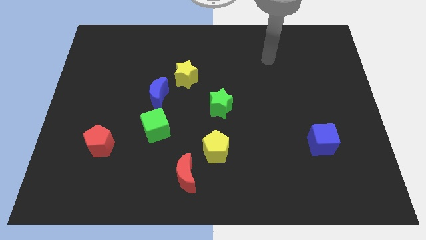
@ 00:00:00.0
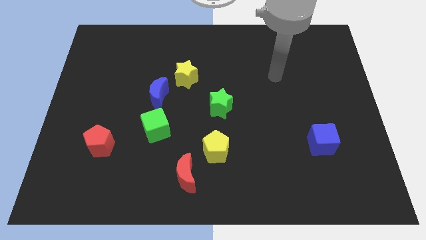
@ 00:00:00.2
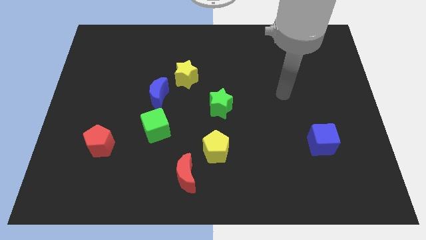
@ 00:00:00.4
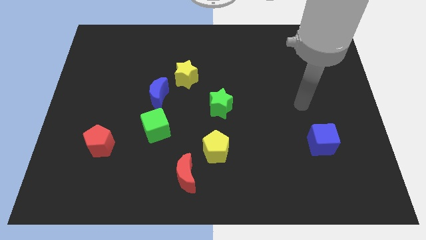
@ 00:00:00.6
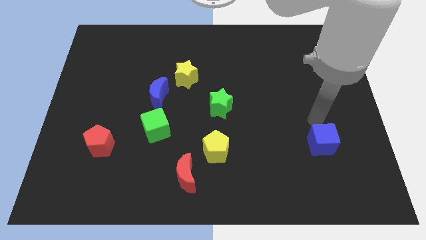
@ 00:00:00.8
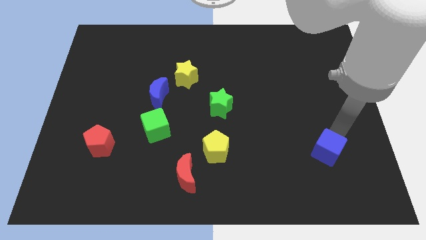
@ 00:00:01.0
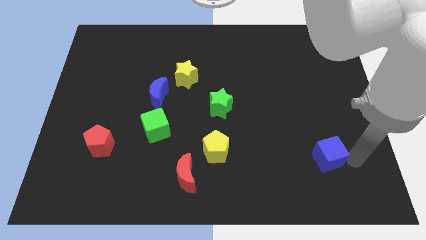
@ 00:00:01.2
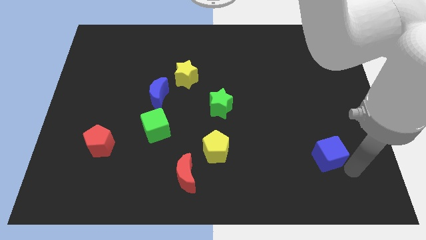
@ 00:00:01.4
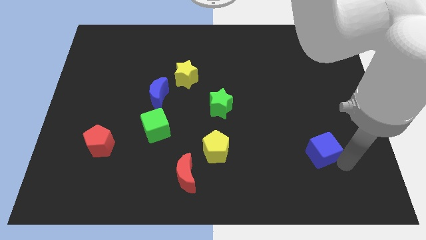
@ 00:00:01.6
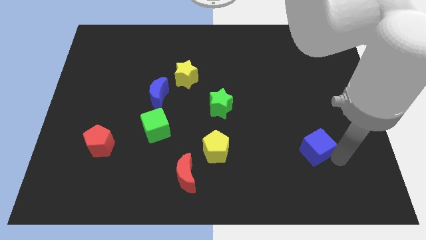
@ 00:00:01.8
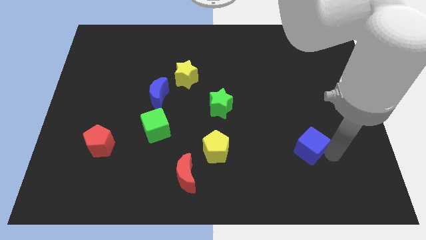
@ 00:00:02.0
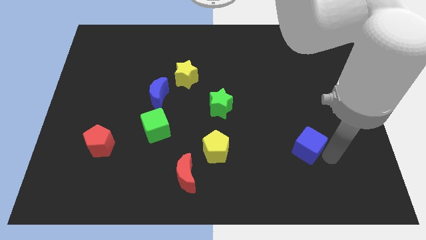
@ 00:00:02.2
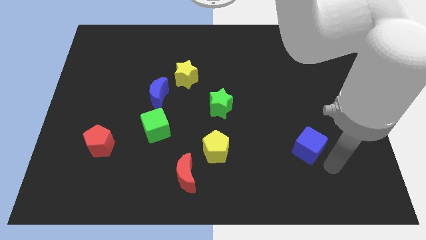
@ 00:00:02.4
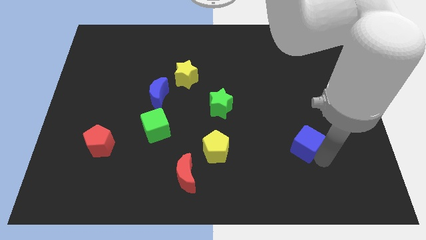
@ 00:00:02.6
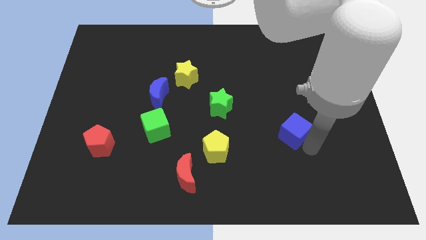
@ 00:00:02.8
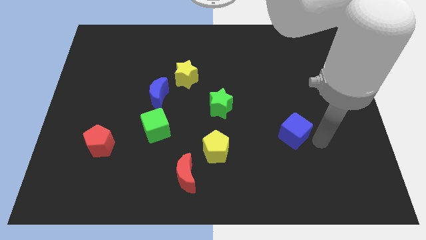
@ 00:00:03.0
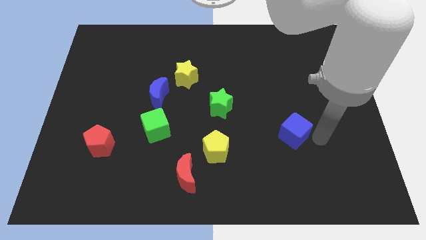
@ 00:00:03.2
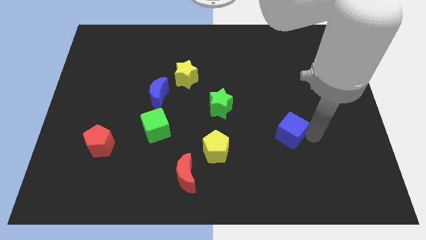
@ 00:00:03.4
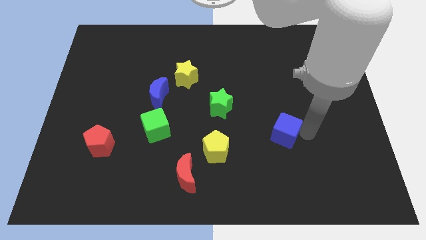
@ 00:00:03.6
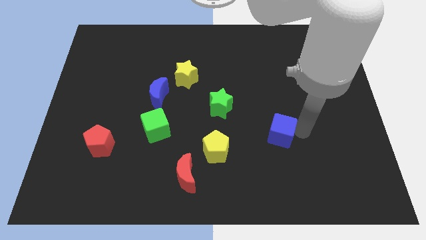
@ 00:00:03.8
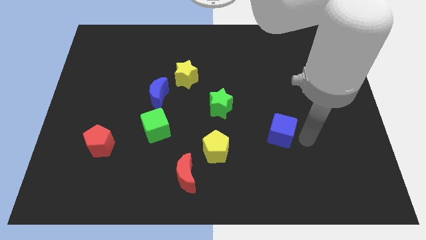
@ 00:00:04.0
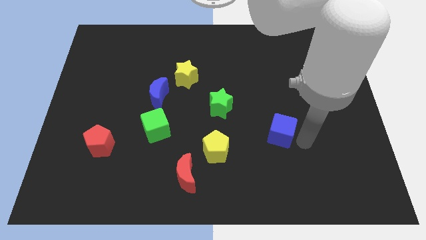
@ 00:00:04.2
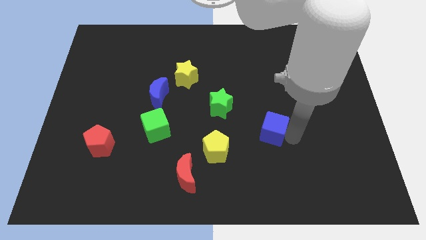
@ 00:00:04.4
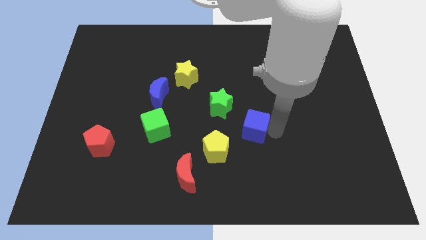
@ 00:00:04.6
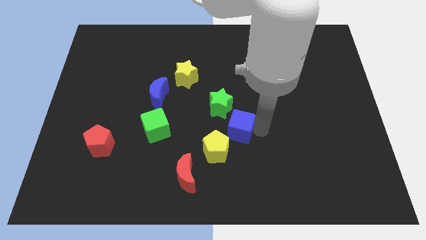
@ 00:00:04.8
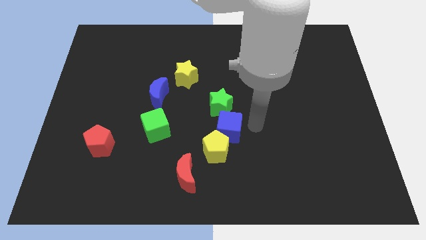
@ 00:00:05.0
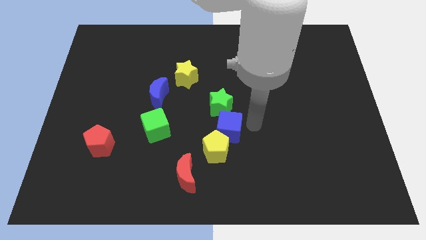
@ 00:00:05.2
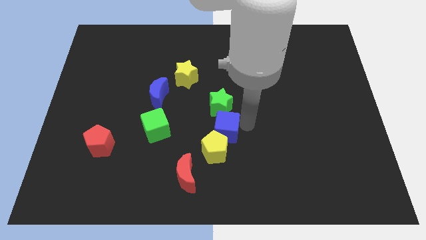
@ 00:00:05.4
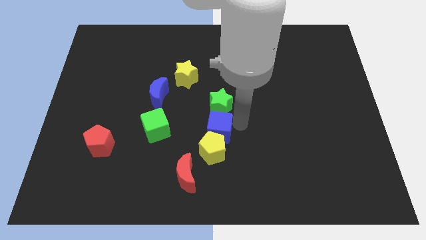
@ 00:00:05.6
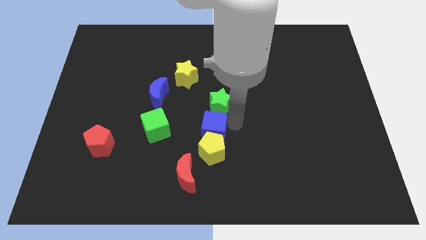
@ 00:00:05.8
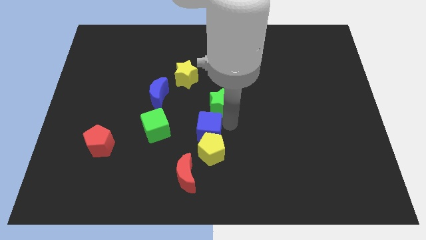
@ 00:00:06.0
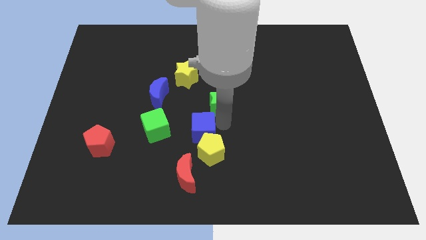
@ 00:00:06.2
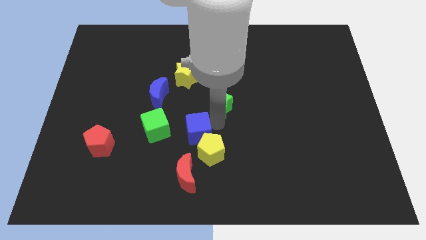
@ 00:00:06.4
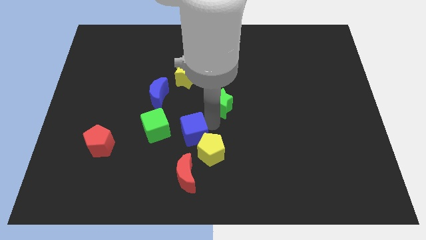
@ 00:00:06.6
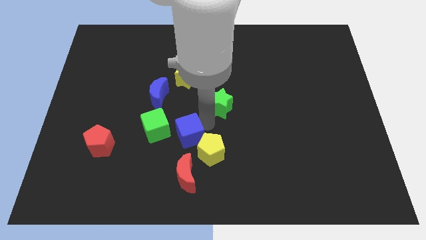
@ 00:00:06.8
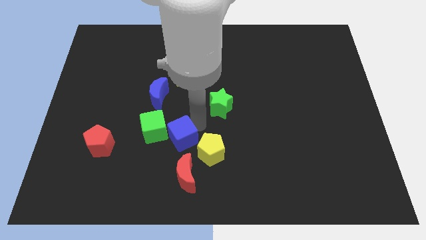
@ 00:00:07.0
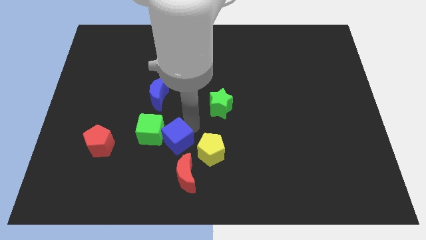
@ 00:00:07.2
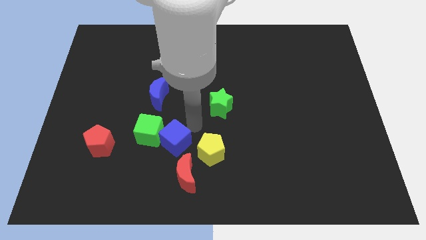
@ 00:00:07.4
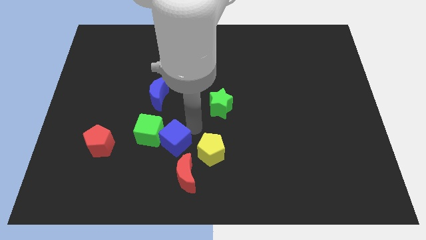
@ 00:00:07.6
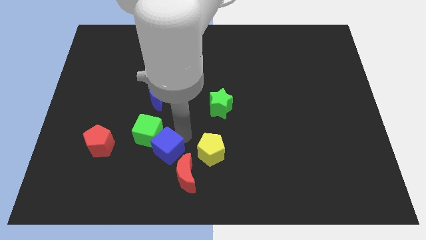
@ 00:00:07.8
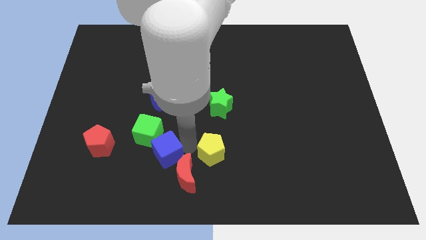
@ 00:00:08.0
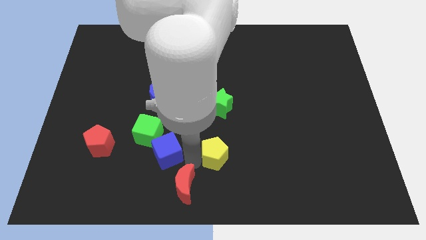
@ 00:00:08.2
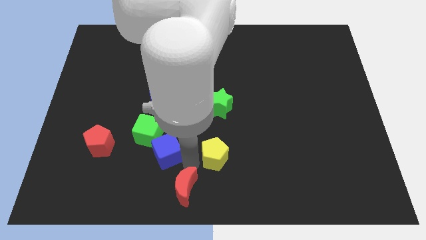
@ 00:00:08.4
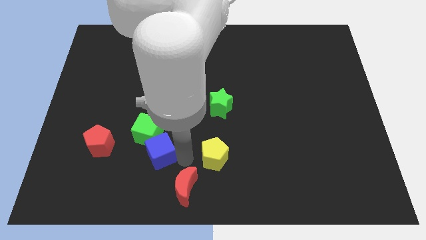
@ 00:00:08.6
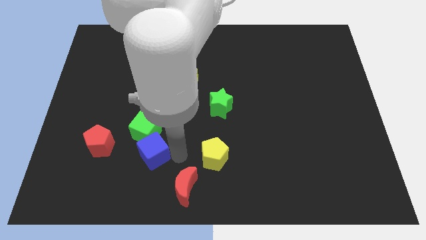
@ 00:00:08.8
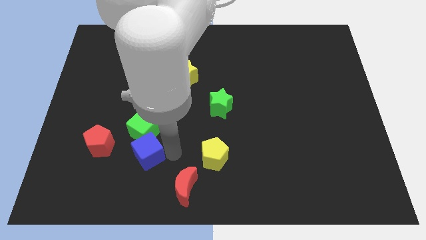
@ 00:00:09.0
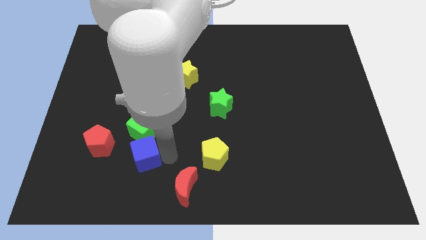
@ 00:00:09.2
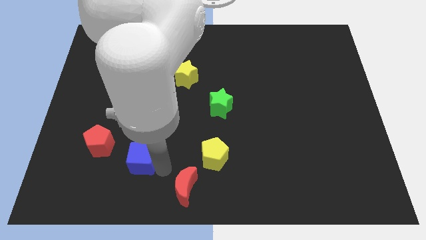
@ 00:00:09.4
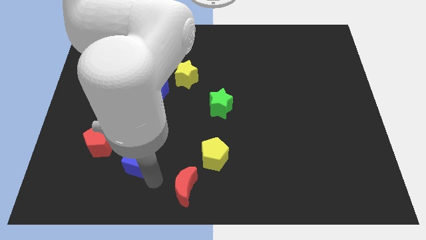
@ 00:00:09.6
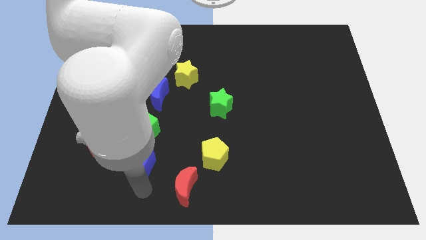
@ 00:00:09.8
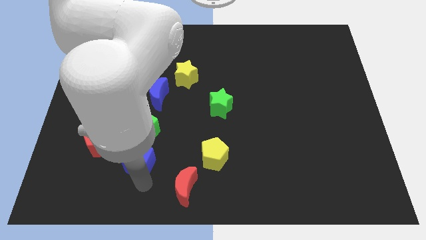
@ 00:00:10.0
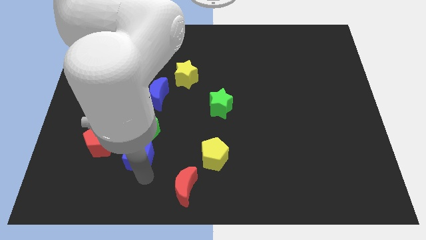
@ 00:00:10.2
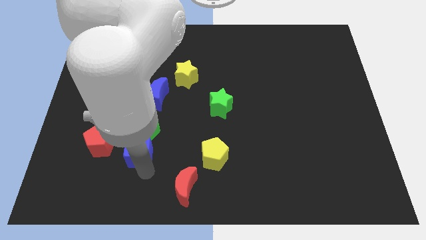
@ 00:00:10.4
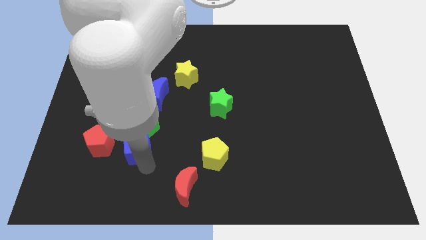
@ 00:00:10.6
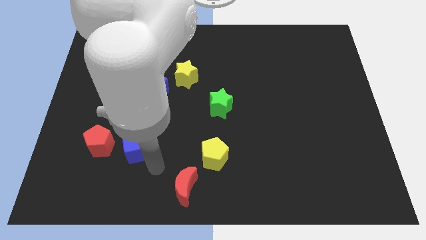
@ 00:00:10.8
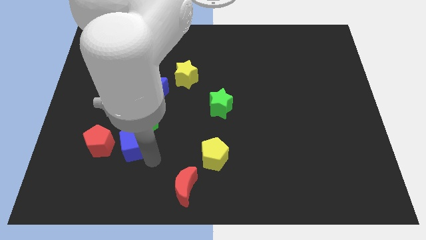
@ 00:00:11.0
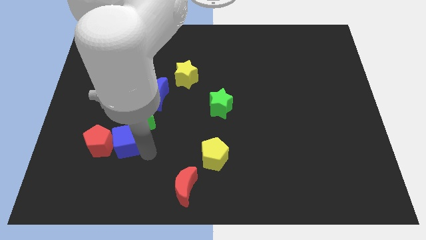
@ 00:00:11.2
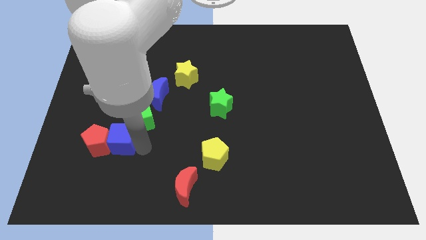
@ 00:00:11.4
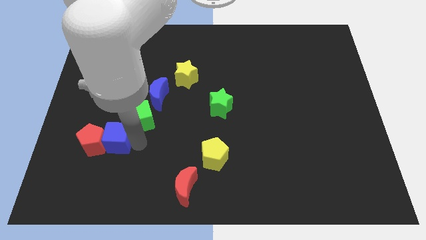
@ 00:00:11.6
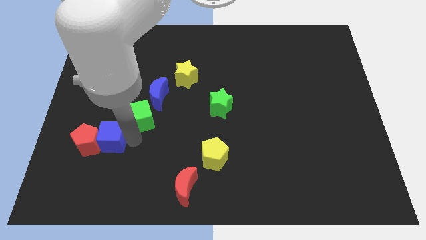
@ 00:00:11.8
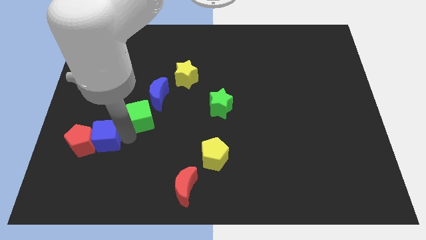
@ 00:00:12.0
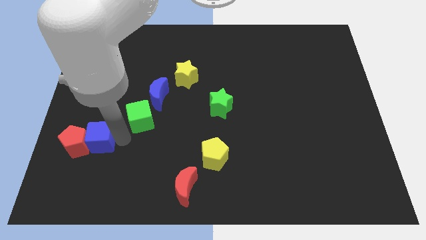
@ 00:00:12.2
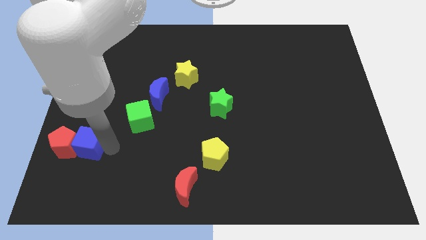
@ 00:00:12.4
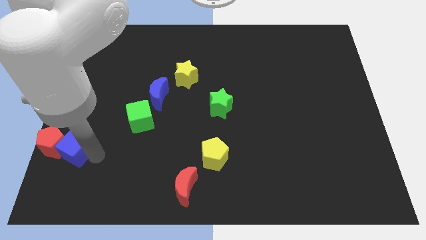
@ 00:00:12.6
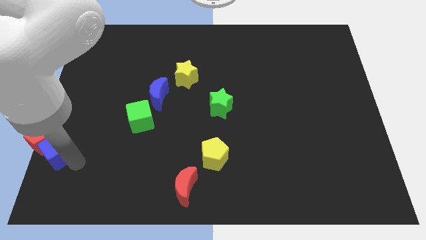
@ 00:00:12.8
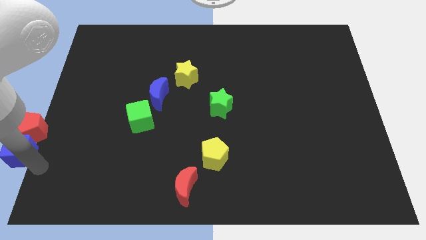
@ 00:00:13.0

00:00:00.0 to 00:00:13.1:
push the blue cube to the left side of the board
